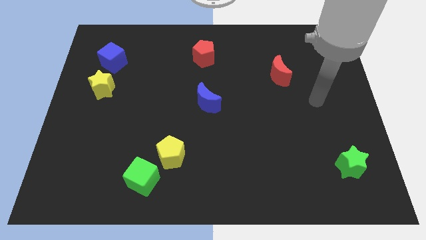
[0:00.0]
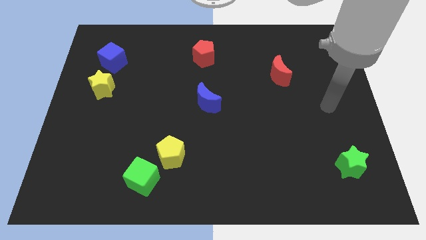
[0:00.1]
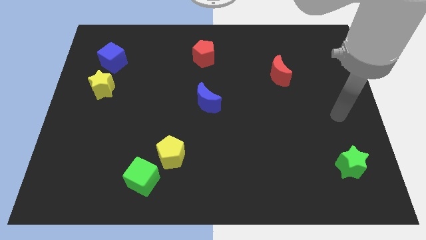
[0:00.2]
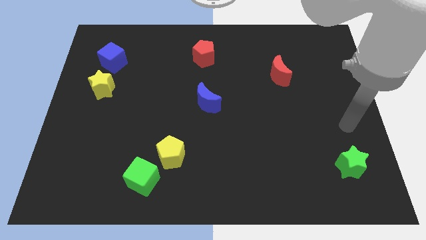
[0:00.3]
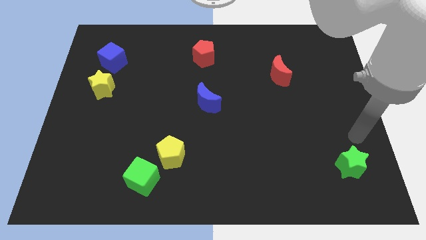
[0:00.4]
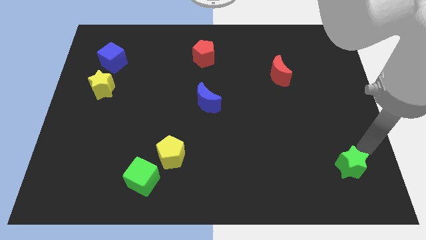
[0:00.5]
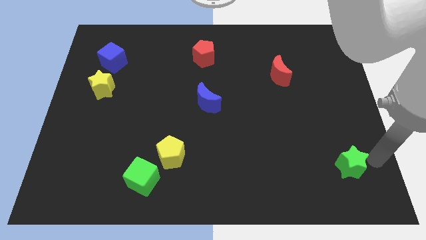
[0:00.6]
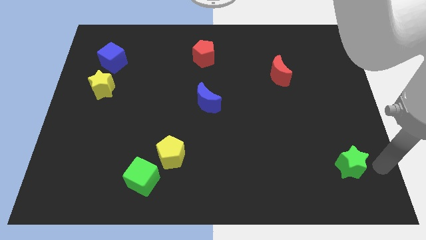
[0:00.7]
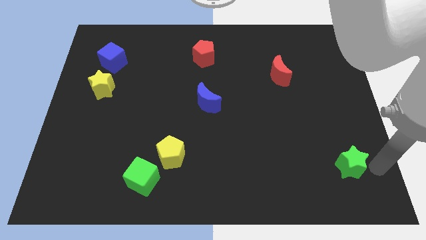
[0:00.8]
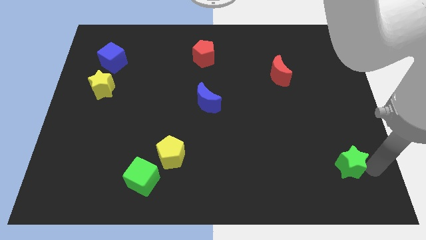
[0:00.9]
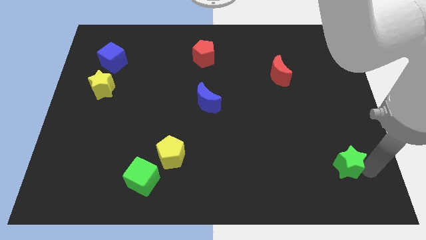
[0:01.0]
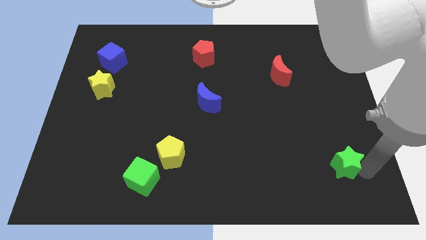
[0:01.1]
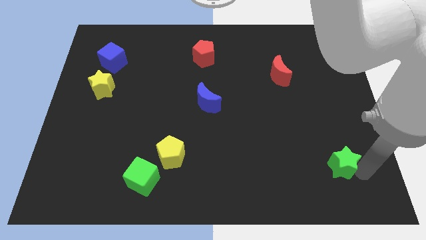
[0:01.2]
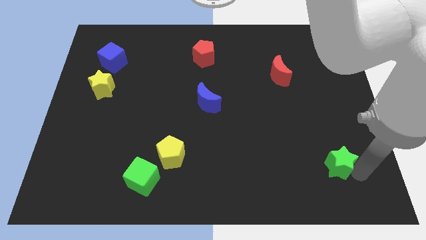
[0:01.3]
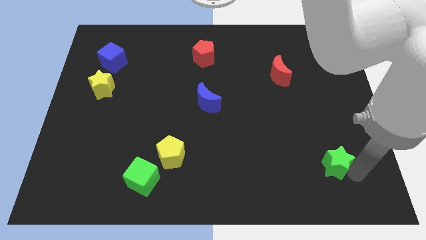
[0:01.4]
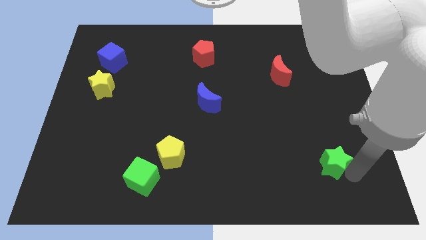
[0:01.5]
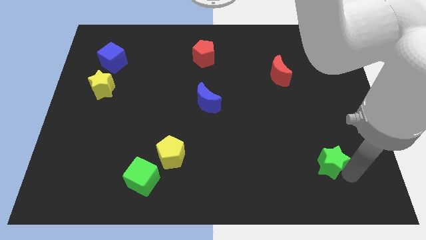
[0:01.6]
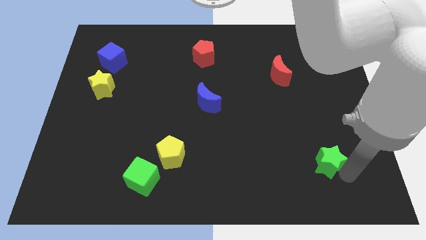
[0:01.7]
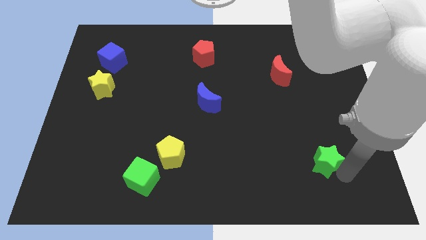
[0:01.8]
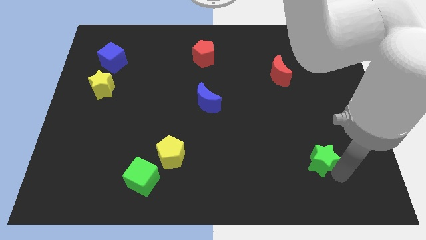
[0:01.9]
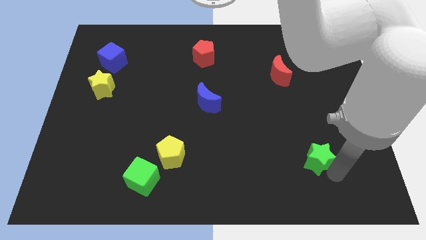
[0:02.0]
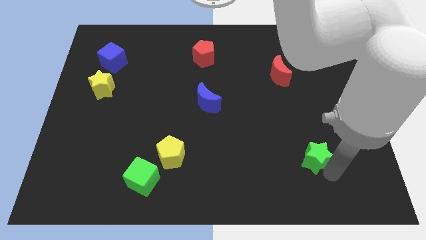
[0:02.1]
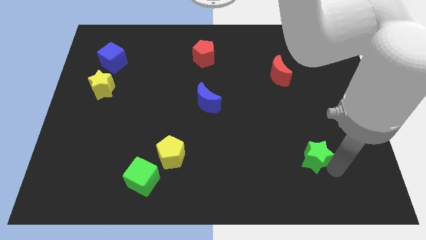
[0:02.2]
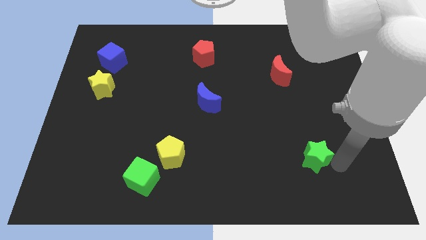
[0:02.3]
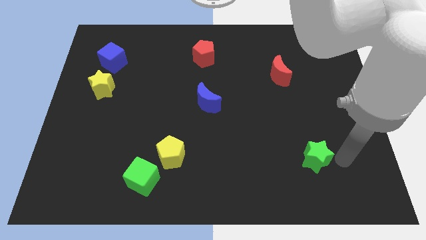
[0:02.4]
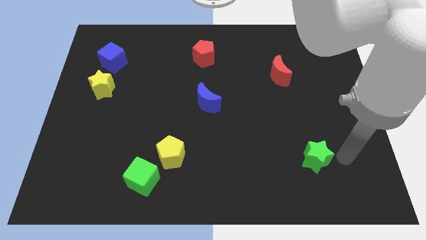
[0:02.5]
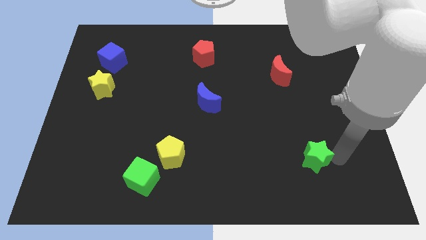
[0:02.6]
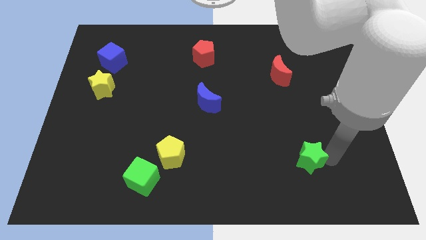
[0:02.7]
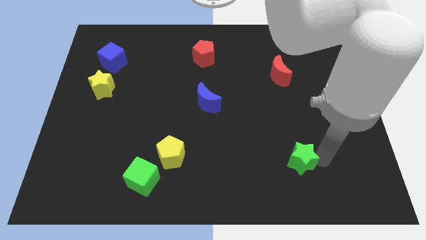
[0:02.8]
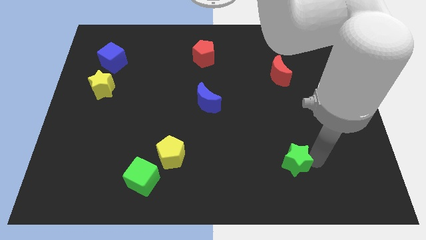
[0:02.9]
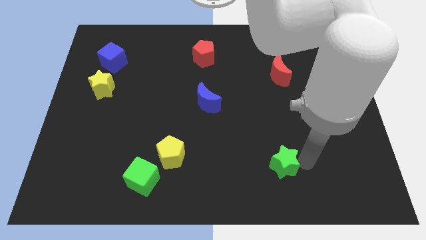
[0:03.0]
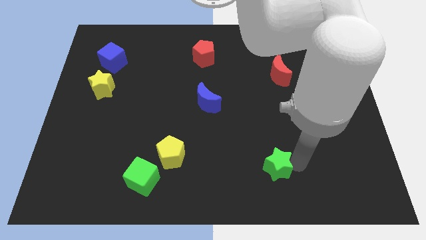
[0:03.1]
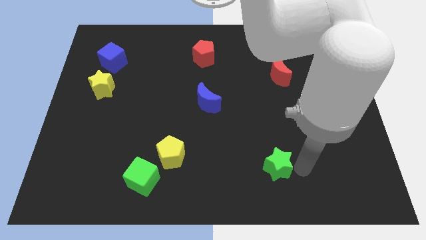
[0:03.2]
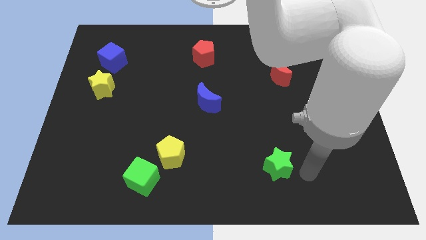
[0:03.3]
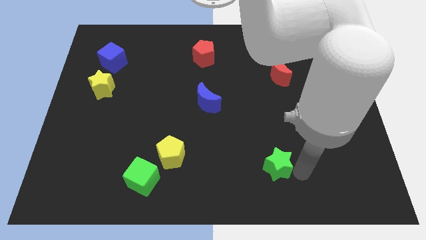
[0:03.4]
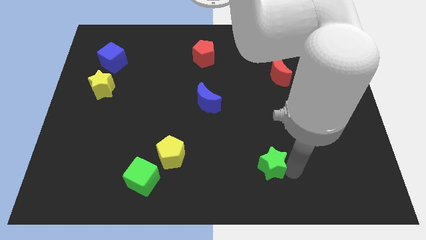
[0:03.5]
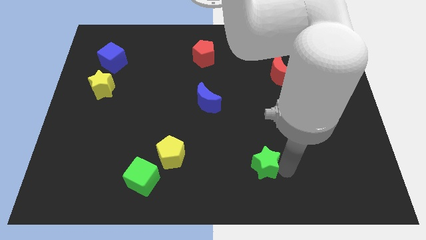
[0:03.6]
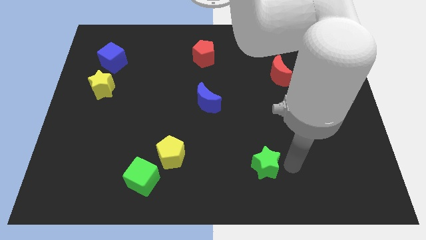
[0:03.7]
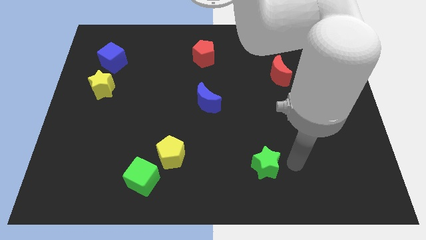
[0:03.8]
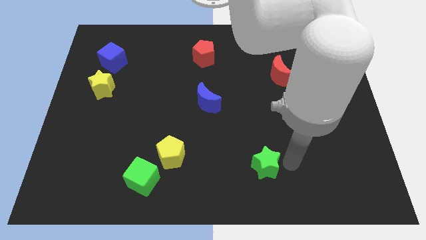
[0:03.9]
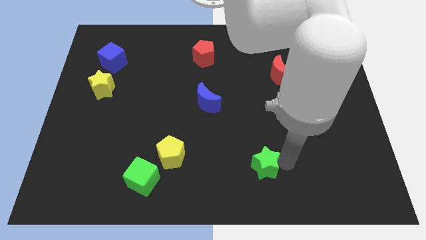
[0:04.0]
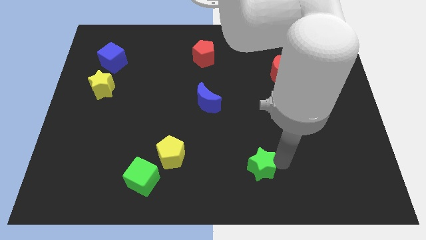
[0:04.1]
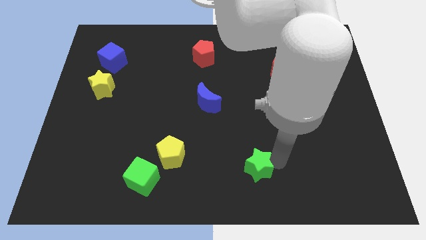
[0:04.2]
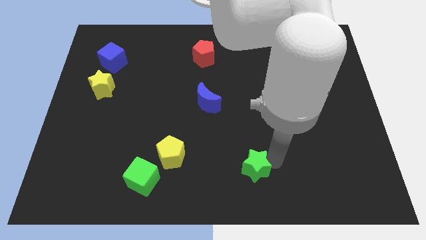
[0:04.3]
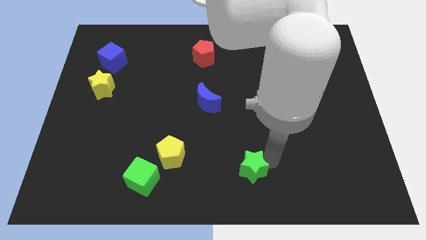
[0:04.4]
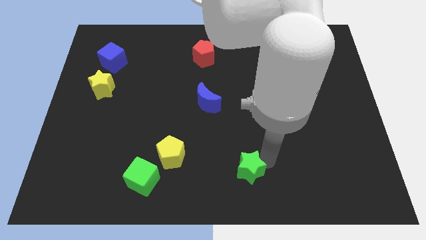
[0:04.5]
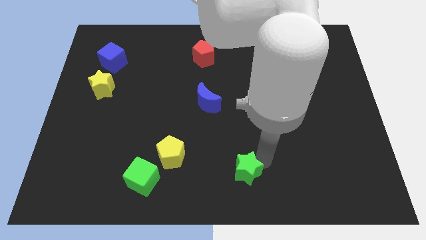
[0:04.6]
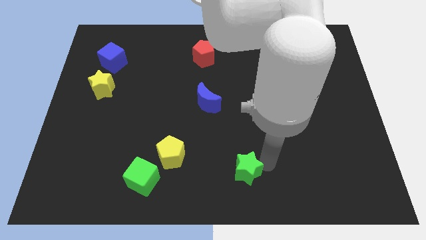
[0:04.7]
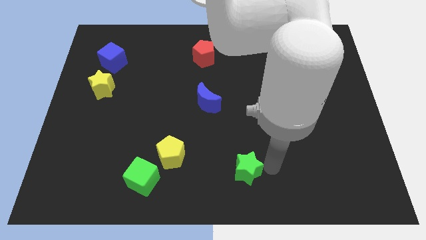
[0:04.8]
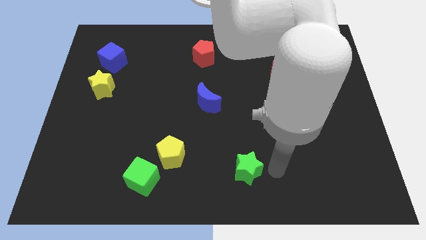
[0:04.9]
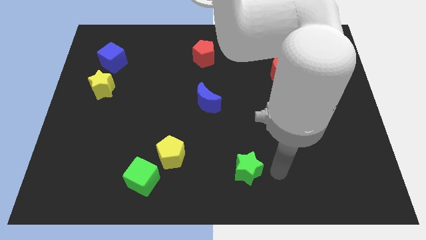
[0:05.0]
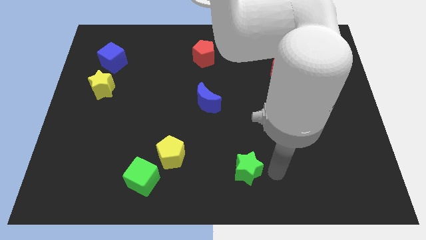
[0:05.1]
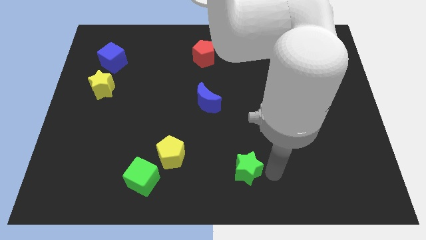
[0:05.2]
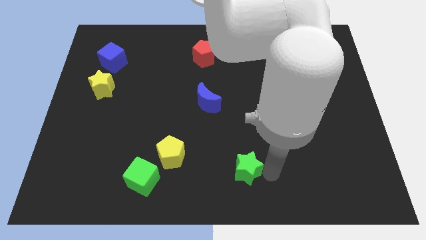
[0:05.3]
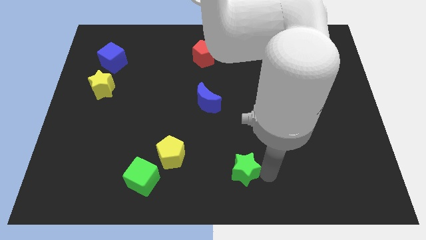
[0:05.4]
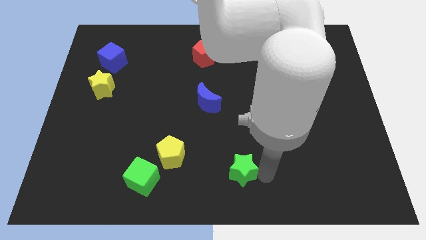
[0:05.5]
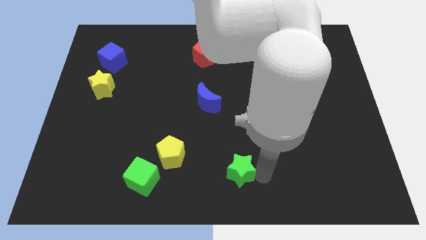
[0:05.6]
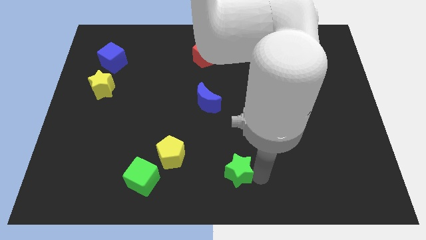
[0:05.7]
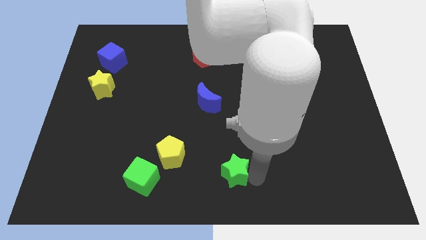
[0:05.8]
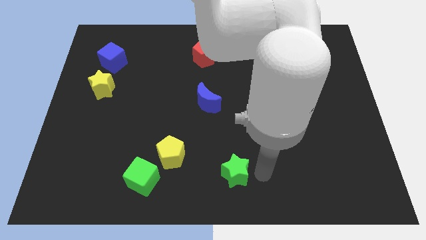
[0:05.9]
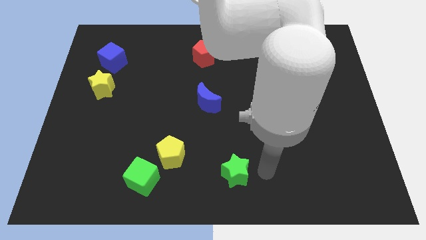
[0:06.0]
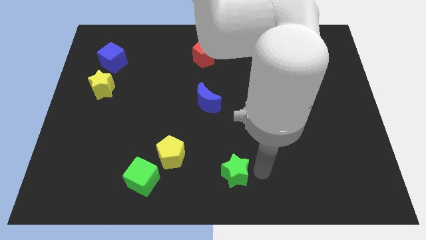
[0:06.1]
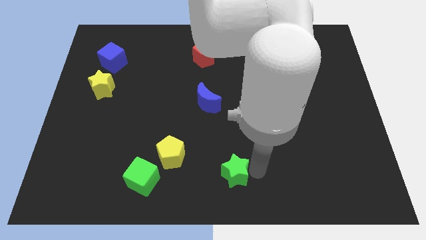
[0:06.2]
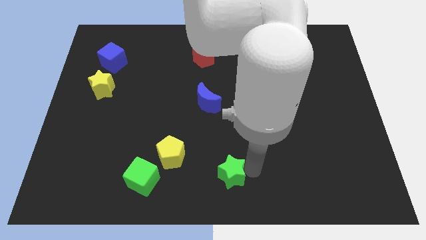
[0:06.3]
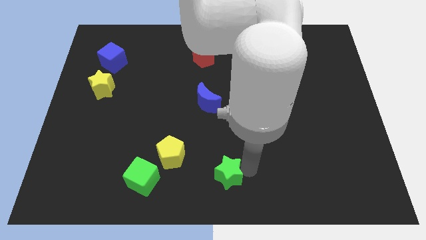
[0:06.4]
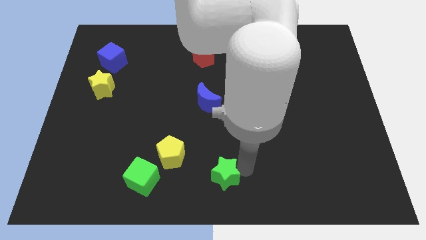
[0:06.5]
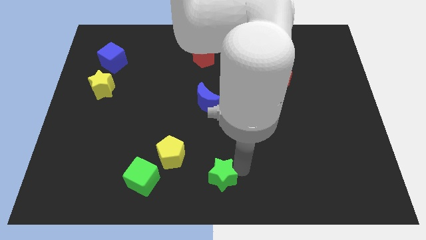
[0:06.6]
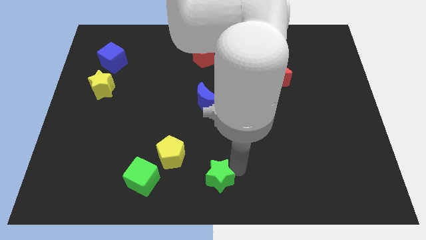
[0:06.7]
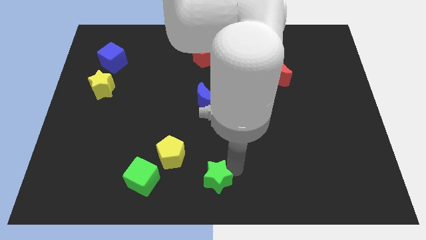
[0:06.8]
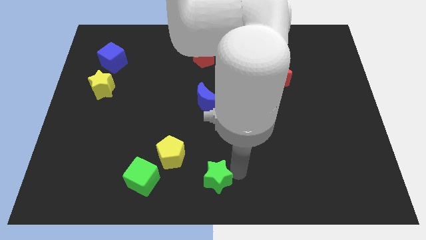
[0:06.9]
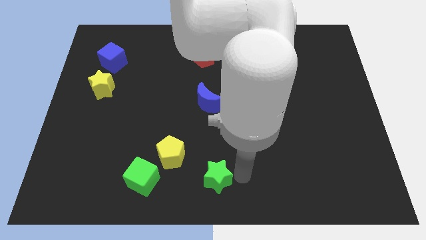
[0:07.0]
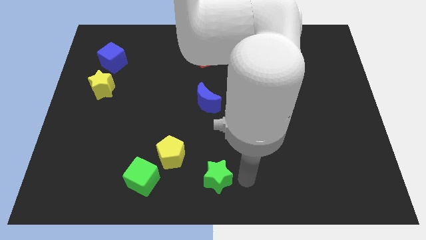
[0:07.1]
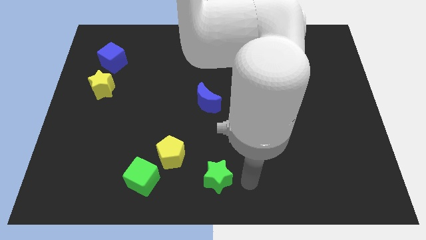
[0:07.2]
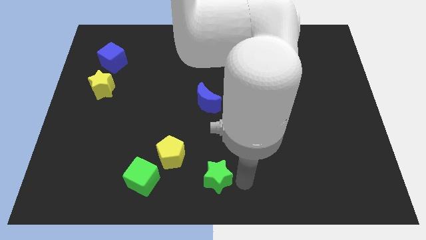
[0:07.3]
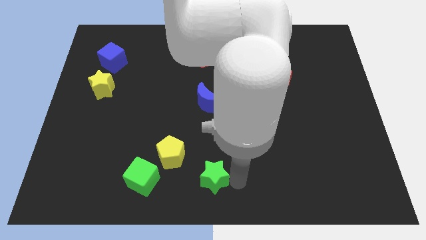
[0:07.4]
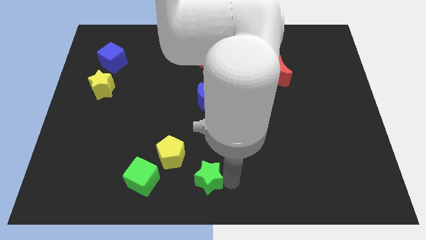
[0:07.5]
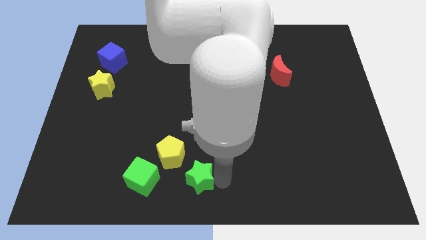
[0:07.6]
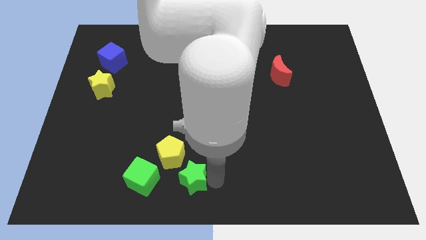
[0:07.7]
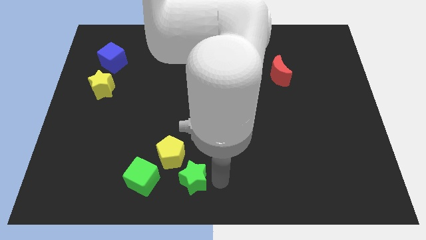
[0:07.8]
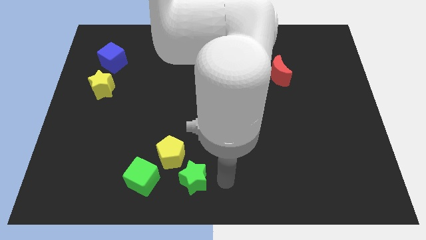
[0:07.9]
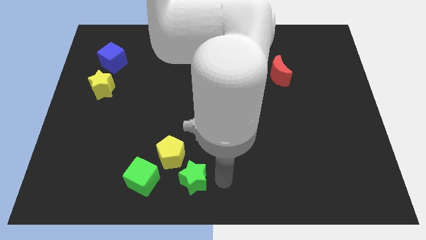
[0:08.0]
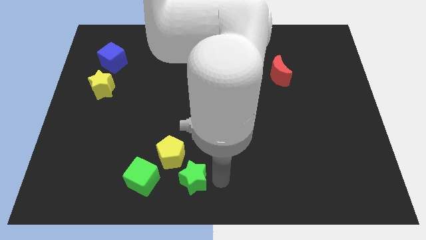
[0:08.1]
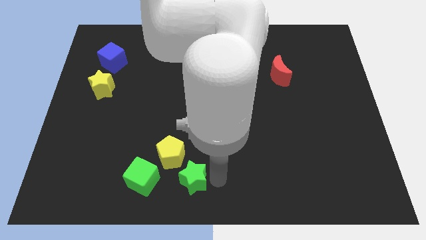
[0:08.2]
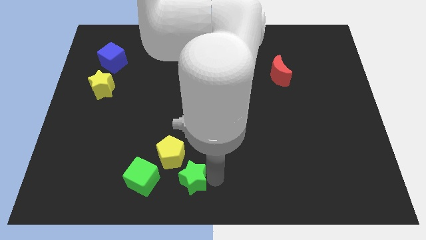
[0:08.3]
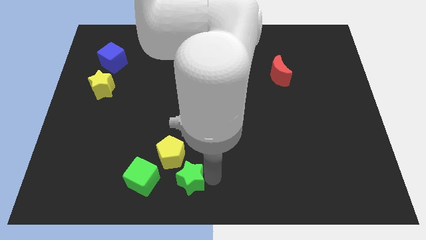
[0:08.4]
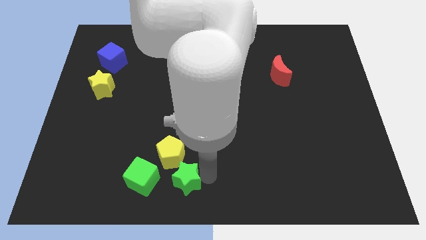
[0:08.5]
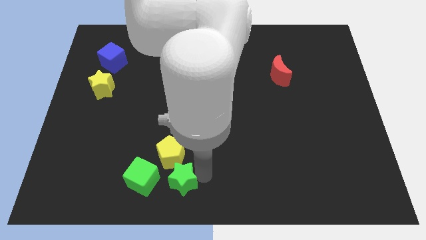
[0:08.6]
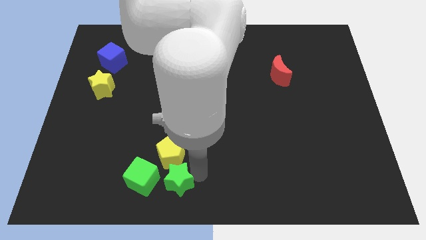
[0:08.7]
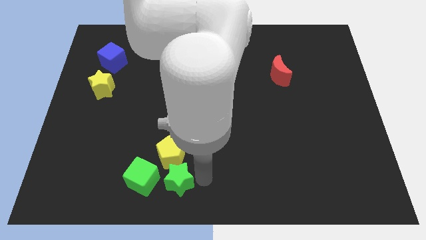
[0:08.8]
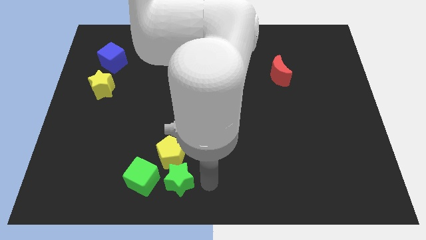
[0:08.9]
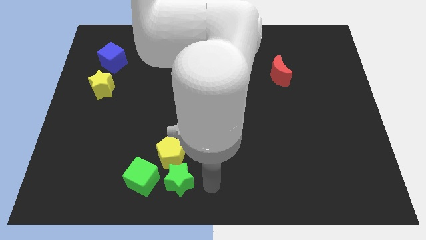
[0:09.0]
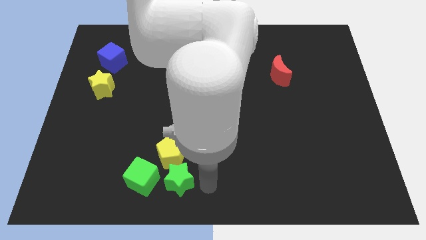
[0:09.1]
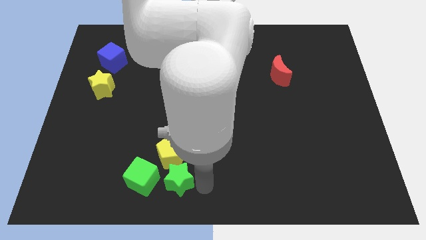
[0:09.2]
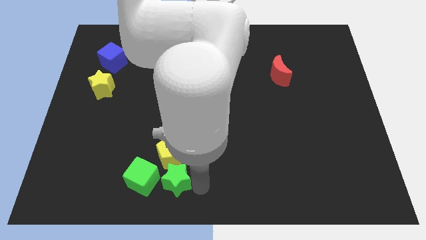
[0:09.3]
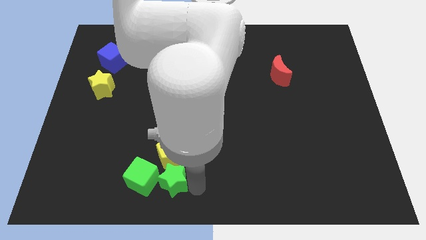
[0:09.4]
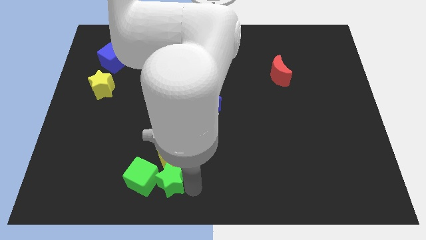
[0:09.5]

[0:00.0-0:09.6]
put the green star close to the green cube
